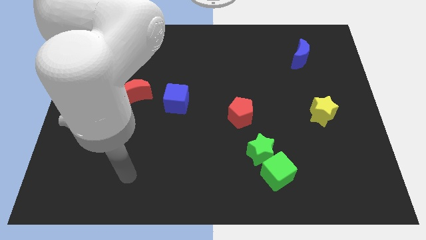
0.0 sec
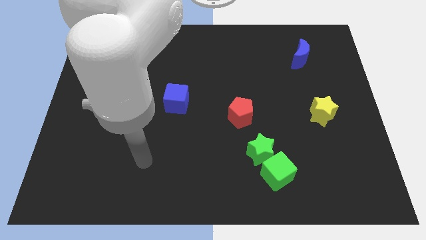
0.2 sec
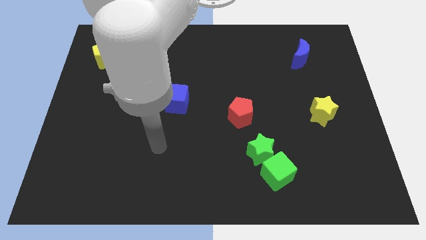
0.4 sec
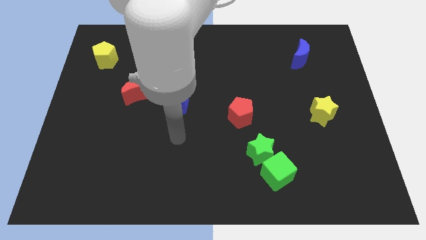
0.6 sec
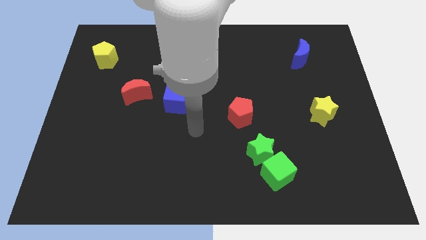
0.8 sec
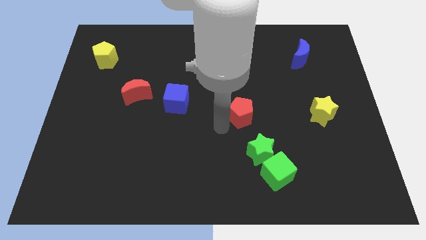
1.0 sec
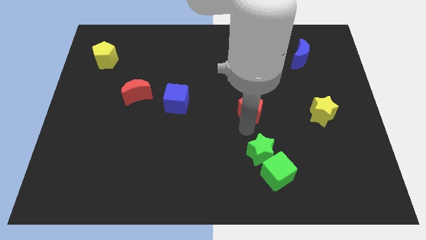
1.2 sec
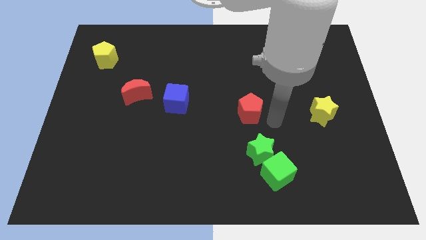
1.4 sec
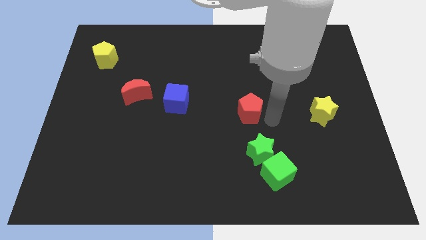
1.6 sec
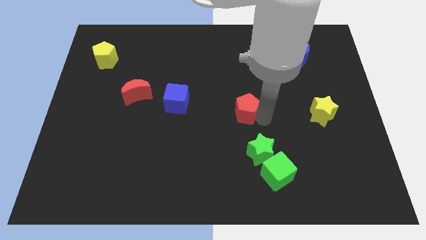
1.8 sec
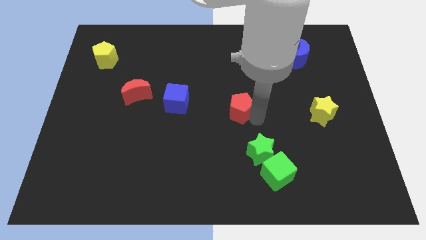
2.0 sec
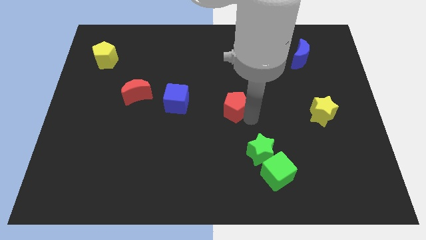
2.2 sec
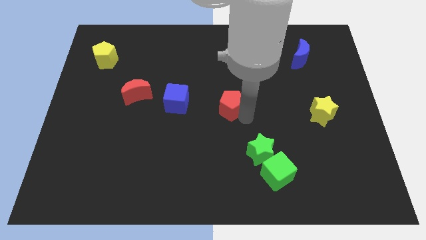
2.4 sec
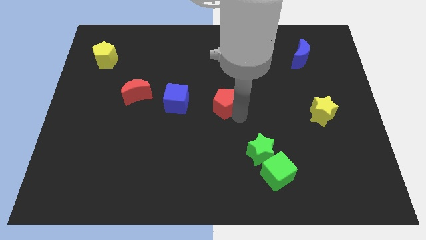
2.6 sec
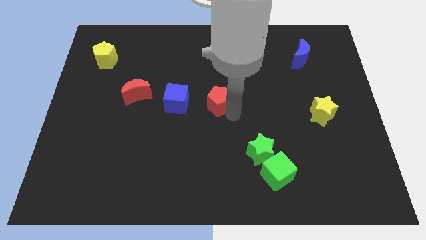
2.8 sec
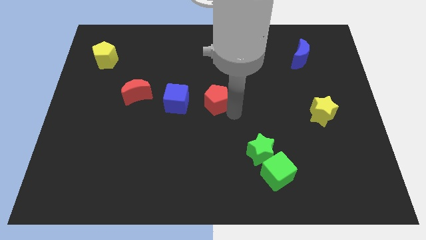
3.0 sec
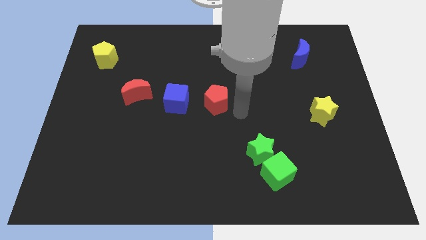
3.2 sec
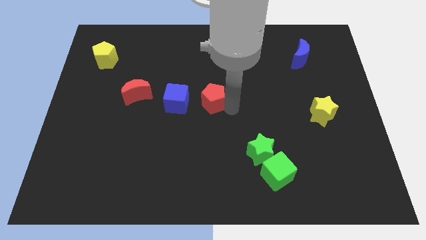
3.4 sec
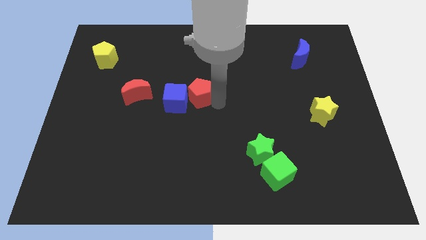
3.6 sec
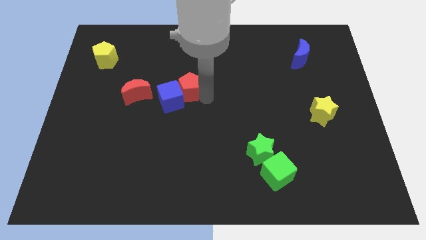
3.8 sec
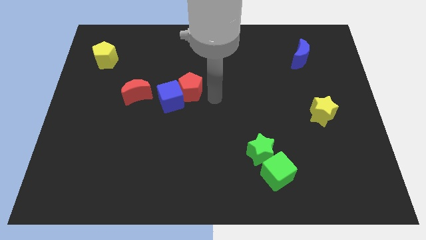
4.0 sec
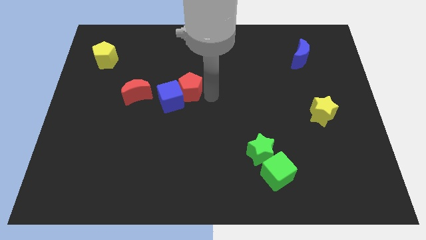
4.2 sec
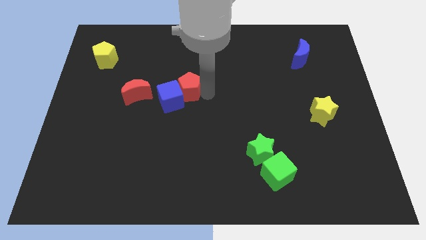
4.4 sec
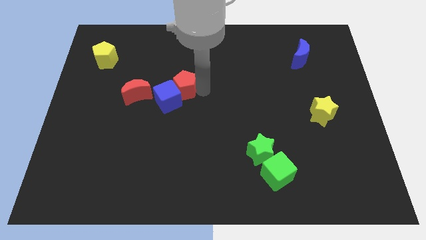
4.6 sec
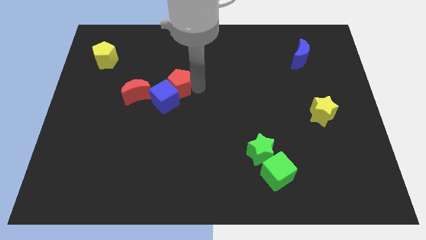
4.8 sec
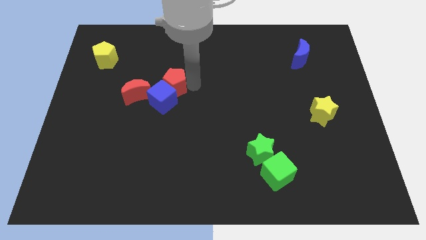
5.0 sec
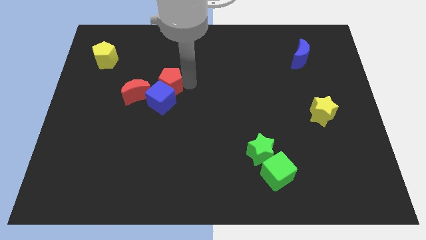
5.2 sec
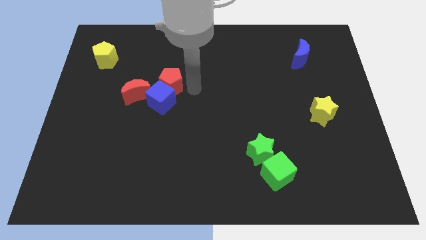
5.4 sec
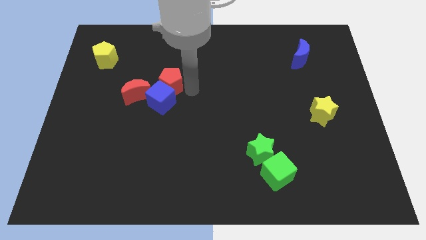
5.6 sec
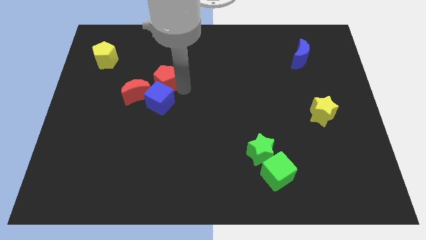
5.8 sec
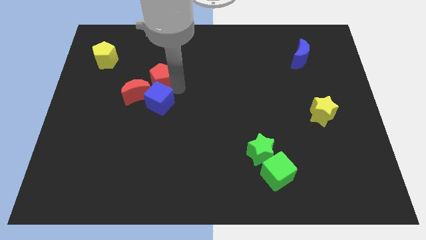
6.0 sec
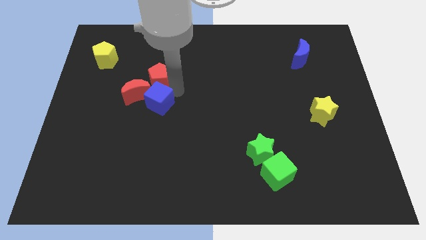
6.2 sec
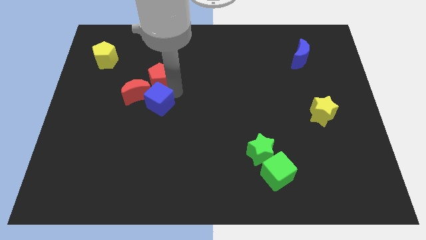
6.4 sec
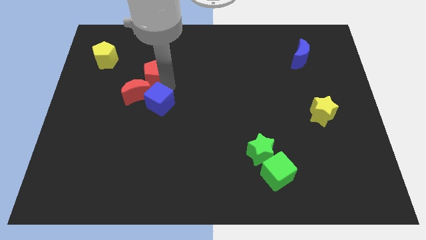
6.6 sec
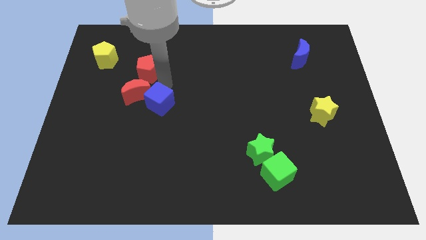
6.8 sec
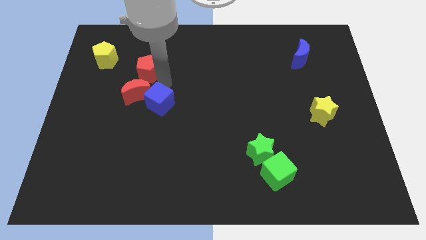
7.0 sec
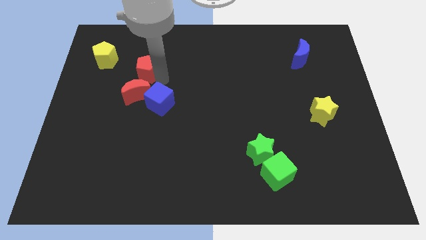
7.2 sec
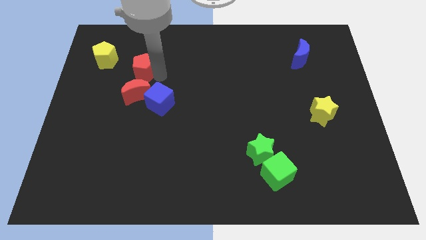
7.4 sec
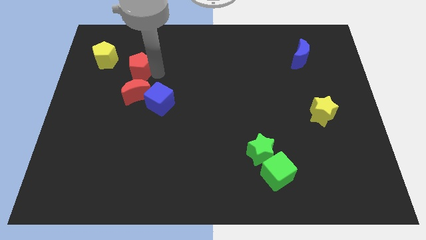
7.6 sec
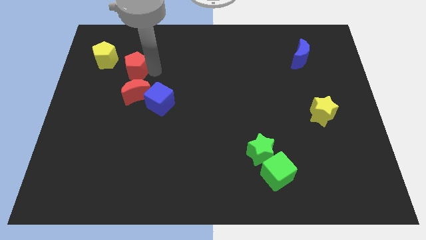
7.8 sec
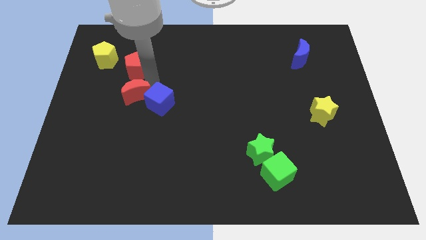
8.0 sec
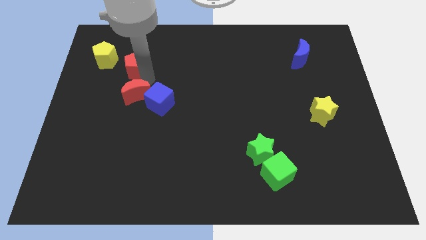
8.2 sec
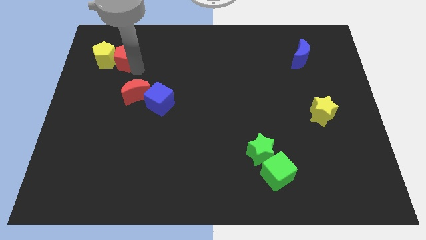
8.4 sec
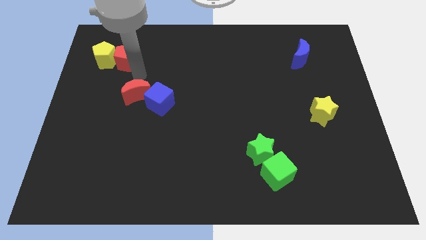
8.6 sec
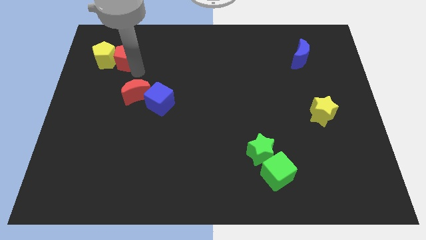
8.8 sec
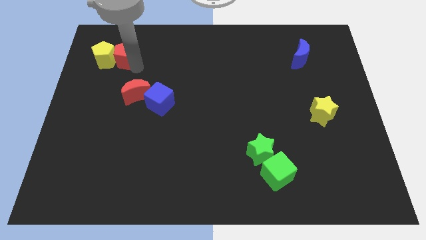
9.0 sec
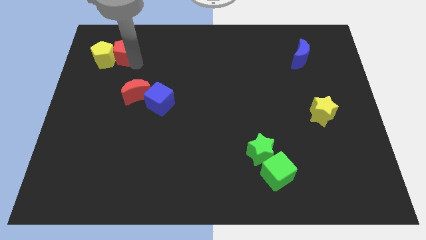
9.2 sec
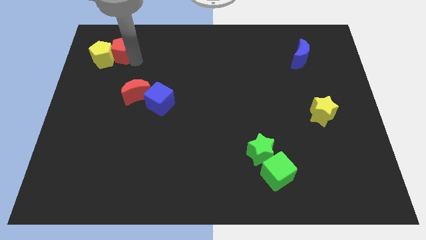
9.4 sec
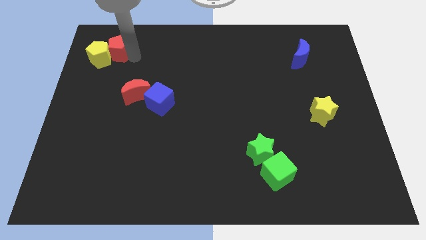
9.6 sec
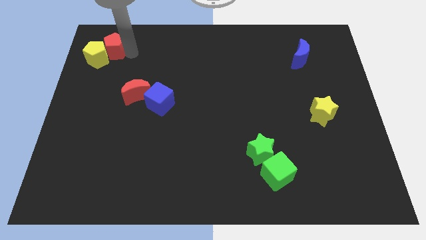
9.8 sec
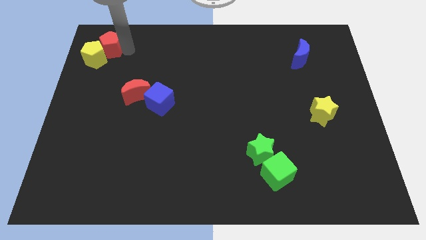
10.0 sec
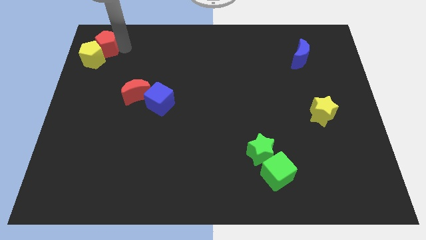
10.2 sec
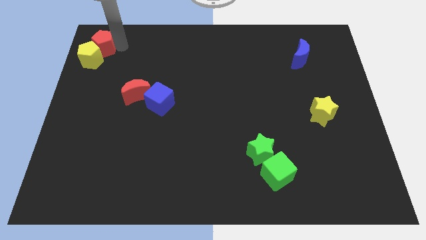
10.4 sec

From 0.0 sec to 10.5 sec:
move the red pentagon to the top left of the board

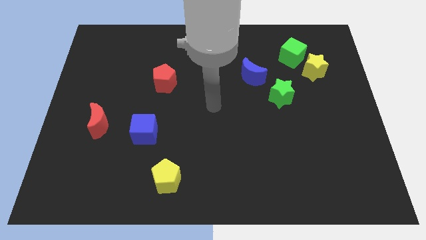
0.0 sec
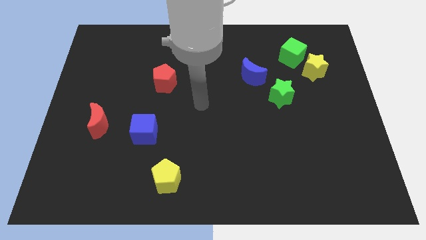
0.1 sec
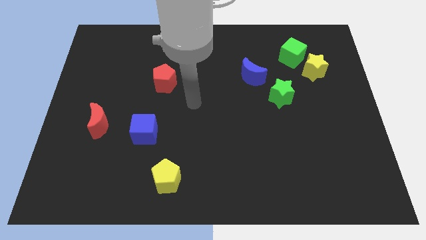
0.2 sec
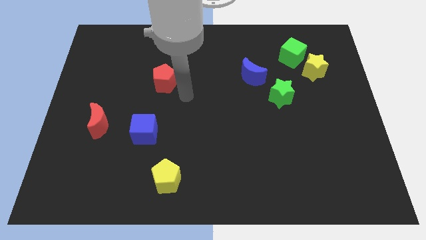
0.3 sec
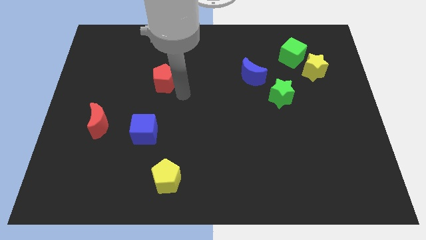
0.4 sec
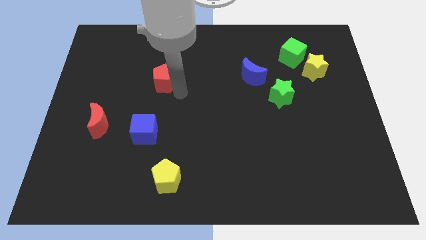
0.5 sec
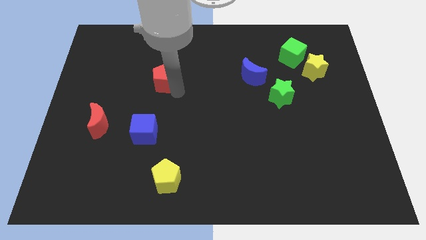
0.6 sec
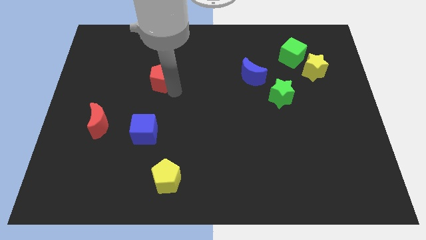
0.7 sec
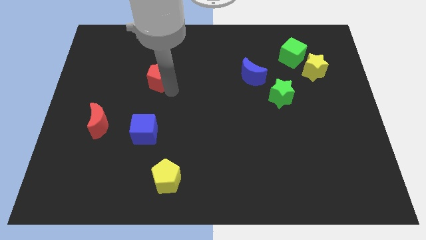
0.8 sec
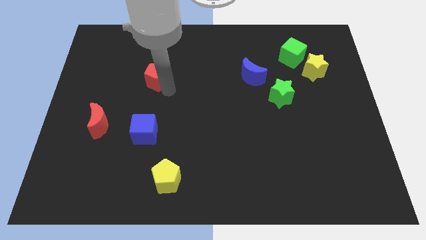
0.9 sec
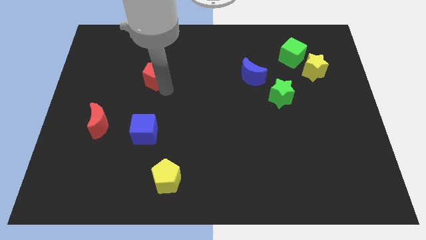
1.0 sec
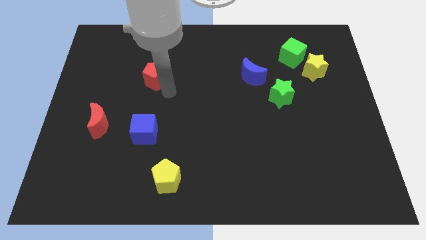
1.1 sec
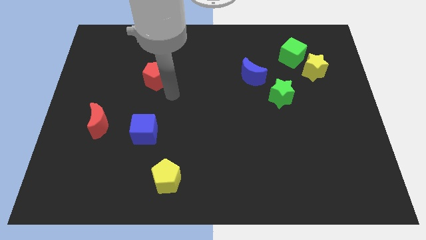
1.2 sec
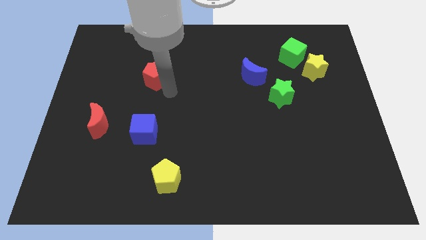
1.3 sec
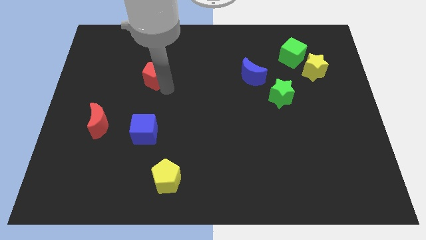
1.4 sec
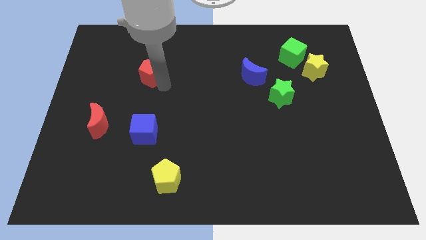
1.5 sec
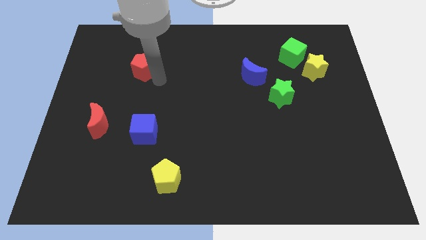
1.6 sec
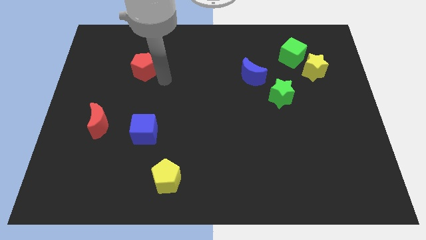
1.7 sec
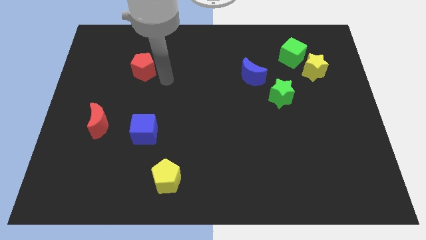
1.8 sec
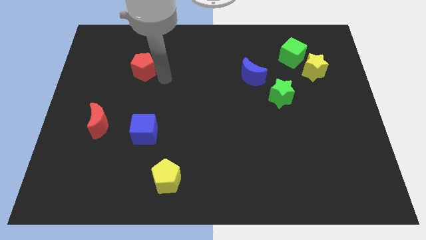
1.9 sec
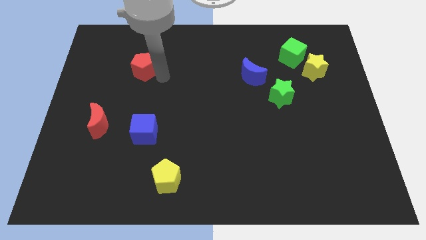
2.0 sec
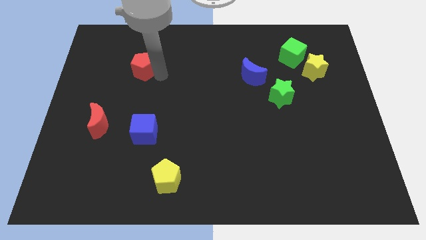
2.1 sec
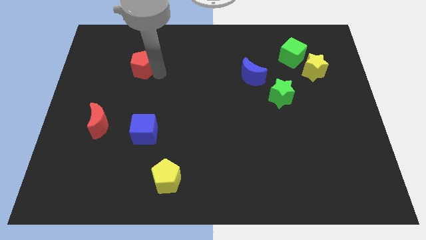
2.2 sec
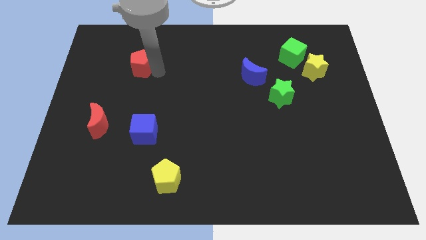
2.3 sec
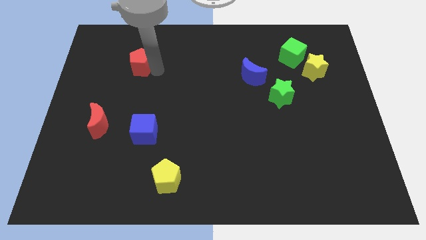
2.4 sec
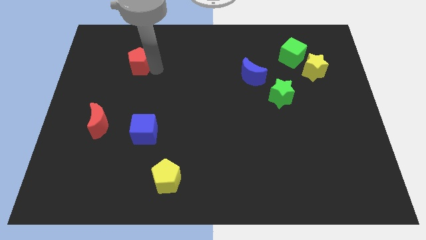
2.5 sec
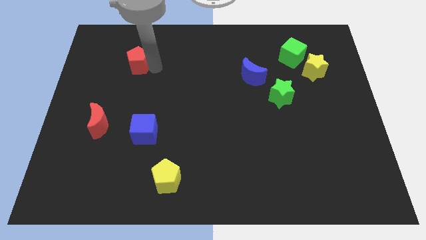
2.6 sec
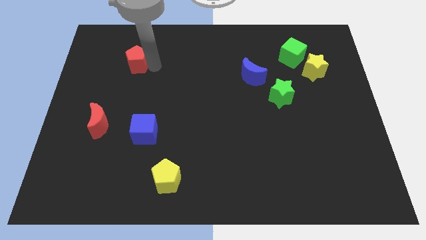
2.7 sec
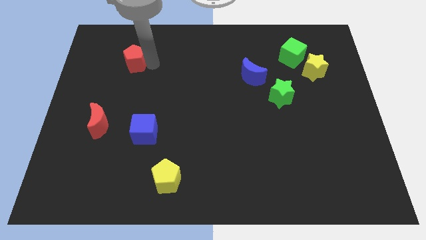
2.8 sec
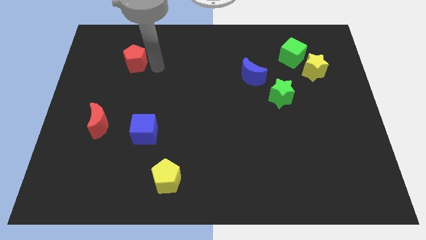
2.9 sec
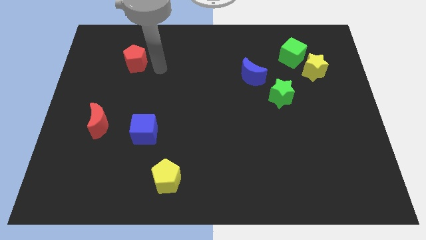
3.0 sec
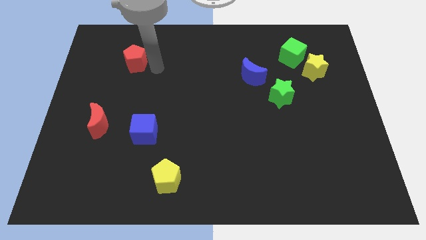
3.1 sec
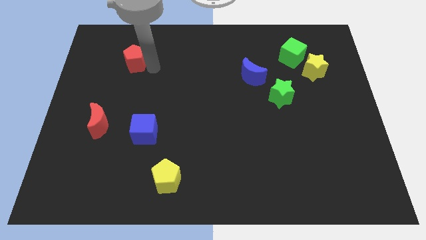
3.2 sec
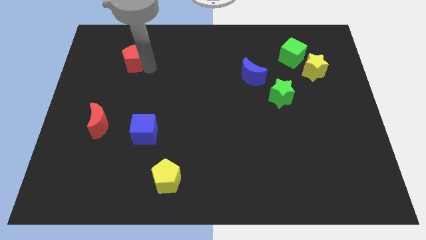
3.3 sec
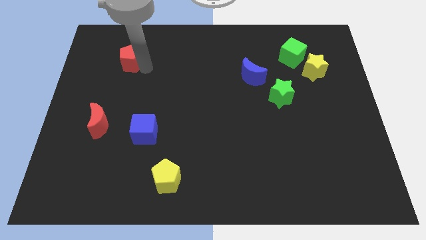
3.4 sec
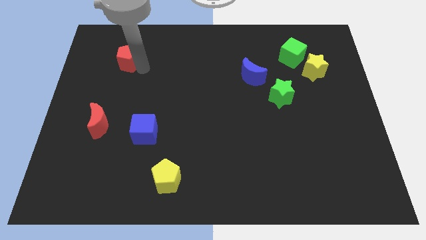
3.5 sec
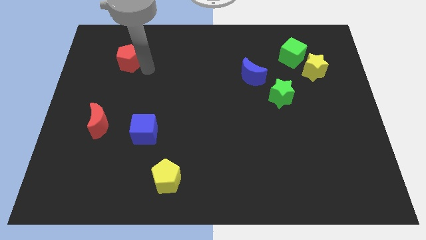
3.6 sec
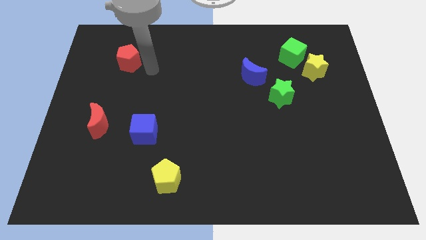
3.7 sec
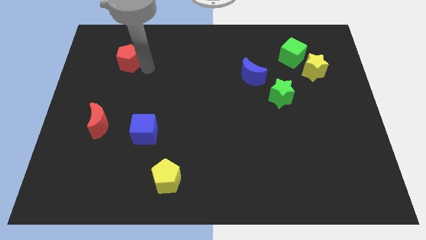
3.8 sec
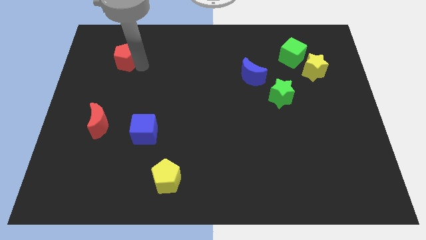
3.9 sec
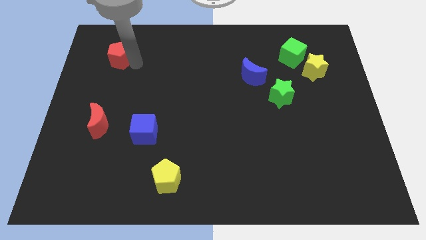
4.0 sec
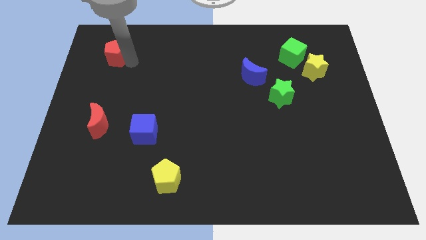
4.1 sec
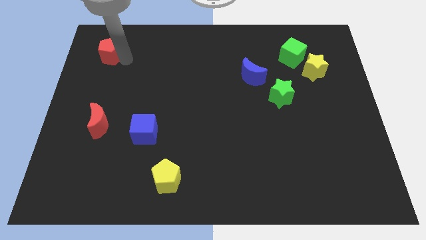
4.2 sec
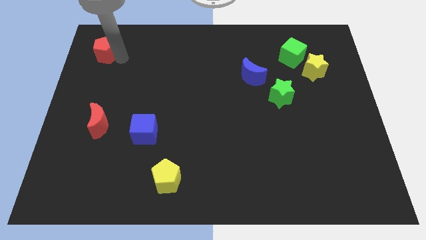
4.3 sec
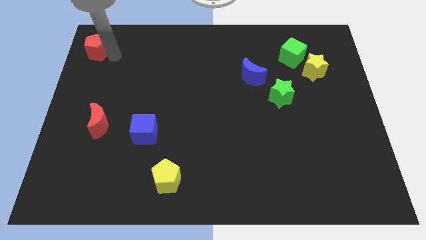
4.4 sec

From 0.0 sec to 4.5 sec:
slide the red pentagon to the top left of the board
